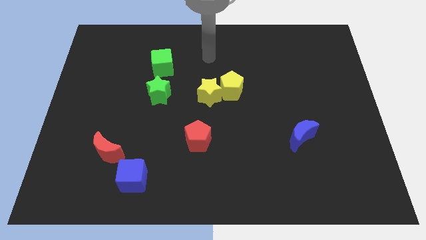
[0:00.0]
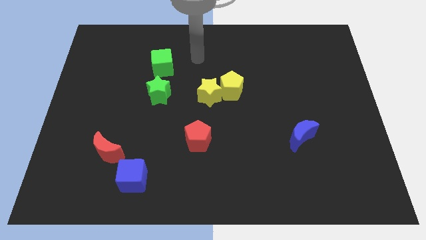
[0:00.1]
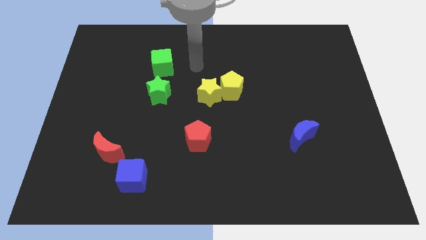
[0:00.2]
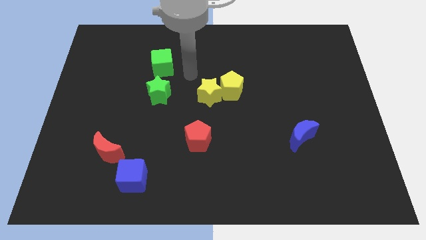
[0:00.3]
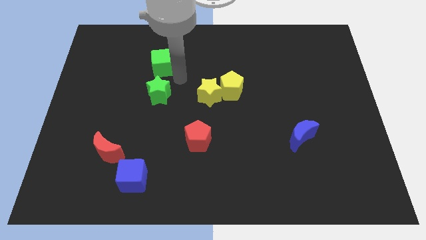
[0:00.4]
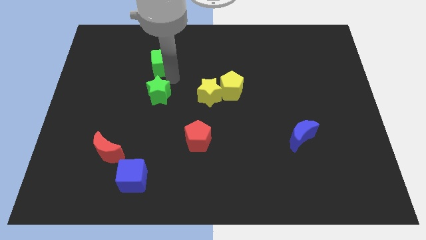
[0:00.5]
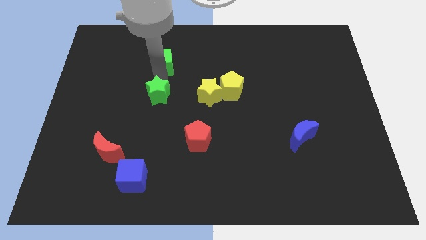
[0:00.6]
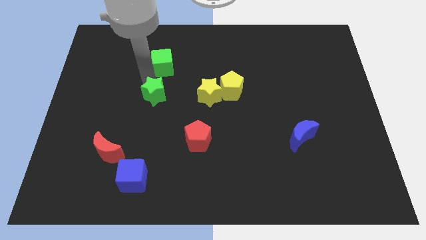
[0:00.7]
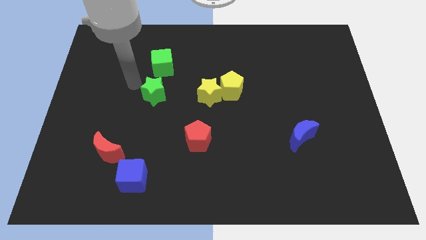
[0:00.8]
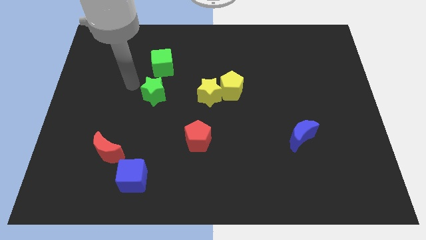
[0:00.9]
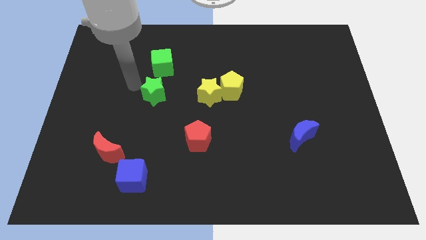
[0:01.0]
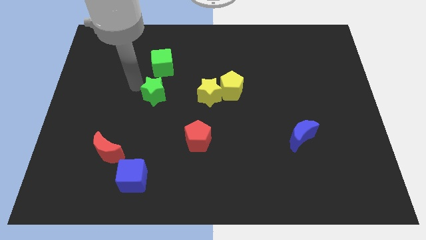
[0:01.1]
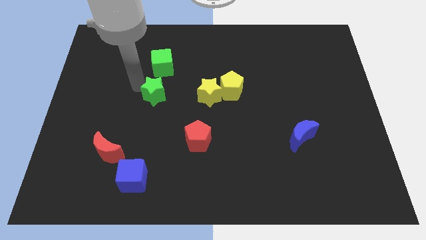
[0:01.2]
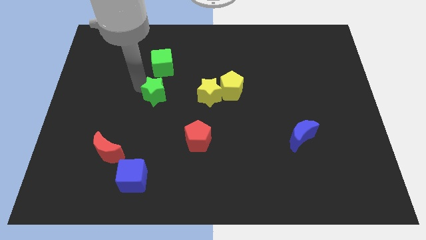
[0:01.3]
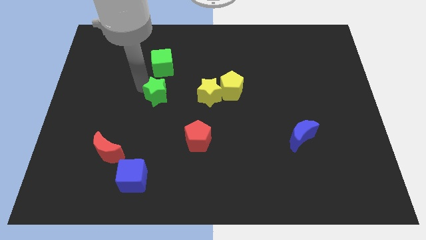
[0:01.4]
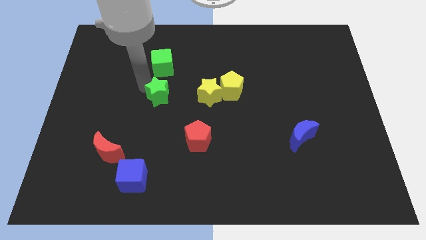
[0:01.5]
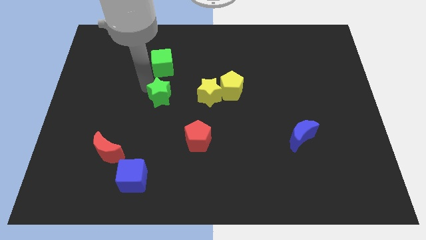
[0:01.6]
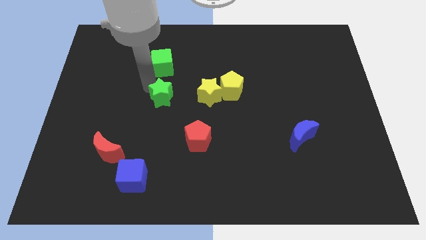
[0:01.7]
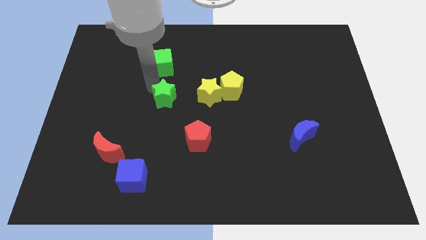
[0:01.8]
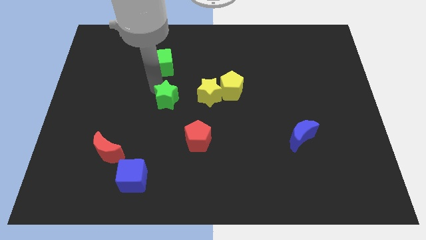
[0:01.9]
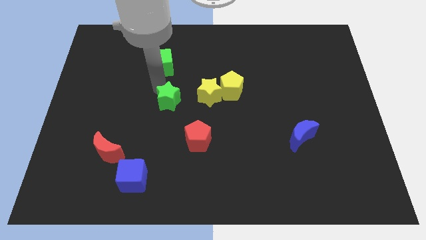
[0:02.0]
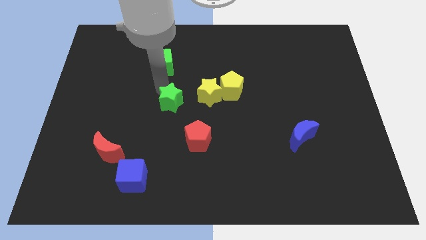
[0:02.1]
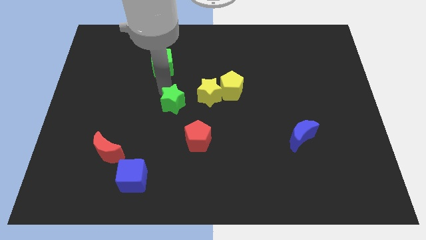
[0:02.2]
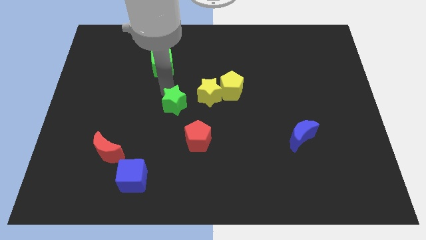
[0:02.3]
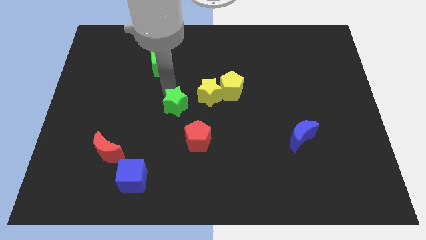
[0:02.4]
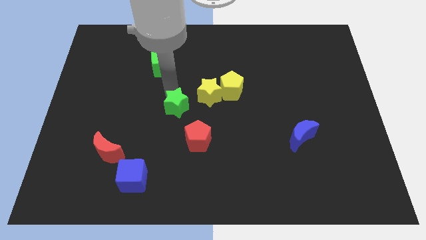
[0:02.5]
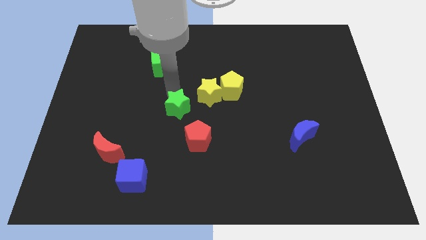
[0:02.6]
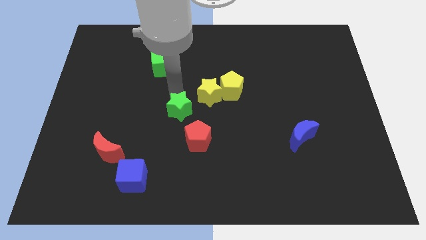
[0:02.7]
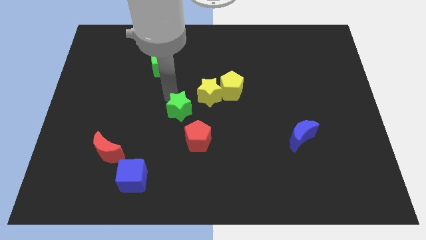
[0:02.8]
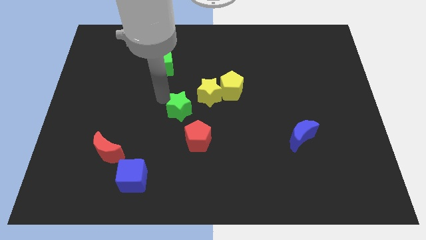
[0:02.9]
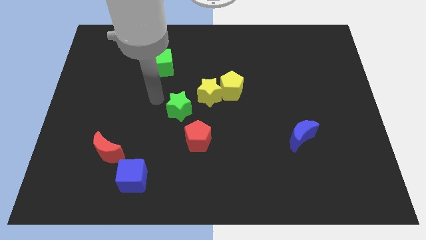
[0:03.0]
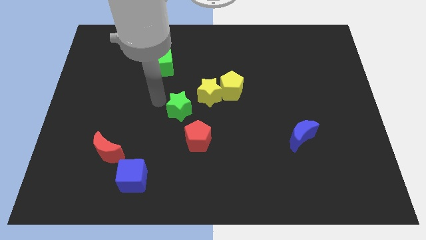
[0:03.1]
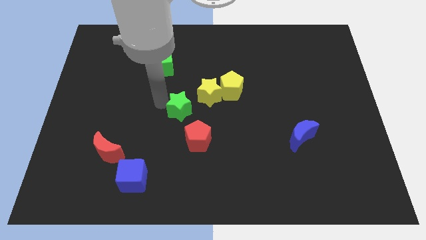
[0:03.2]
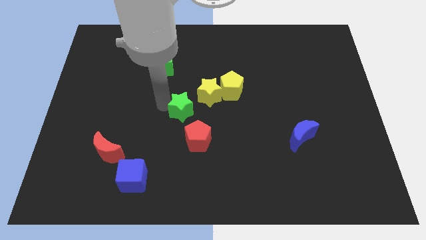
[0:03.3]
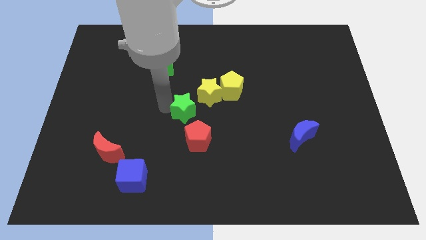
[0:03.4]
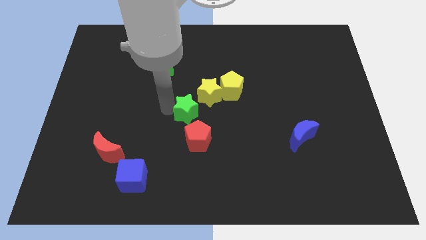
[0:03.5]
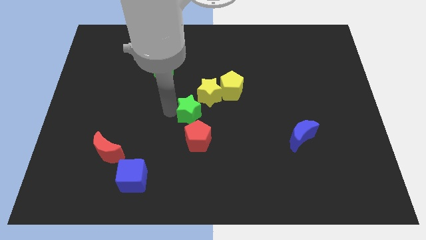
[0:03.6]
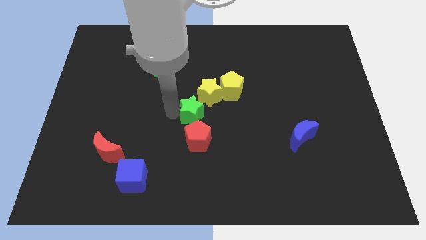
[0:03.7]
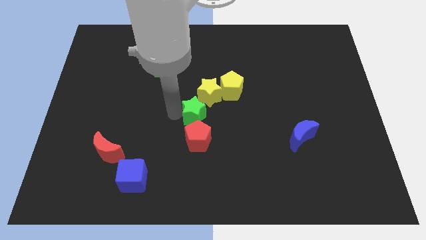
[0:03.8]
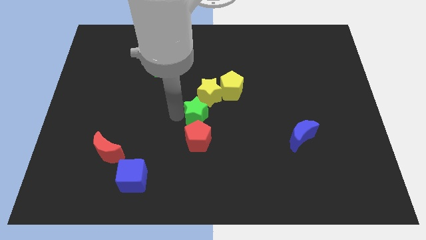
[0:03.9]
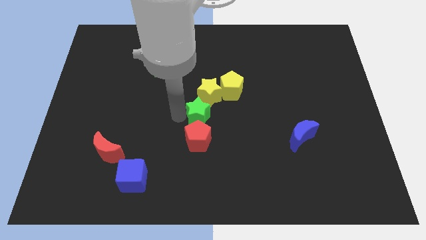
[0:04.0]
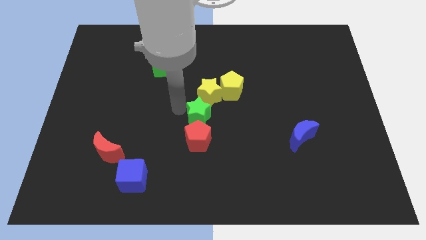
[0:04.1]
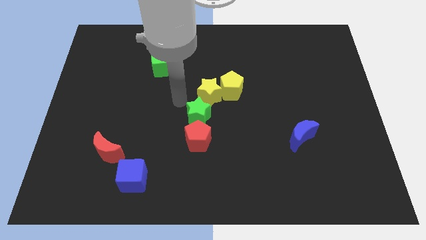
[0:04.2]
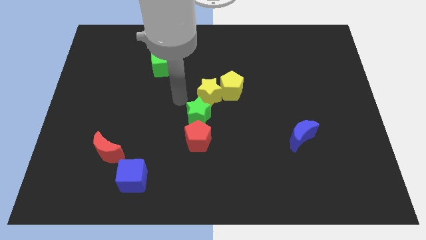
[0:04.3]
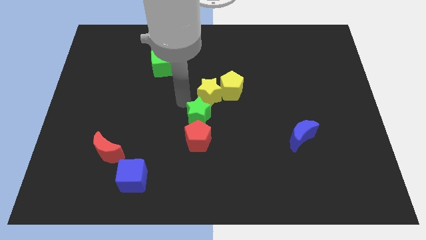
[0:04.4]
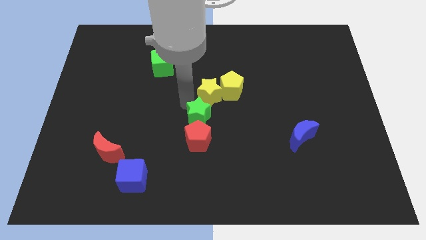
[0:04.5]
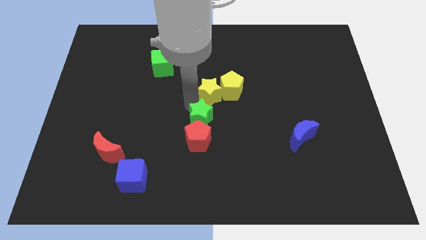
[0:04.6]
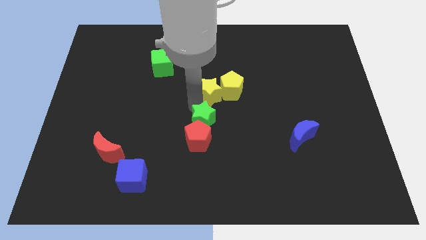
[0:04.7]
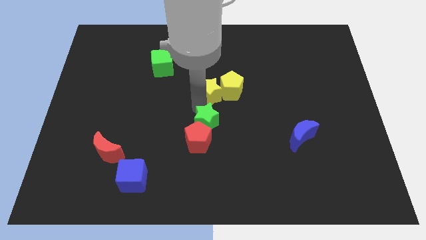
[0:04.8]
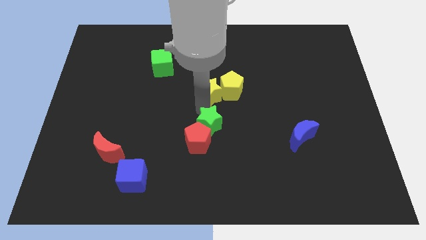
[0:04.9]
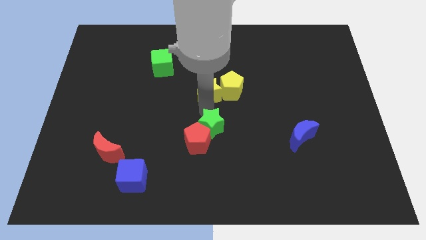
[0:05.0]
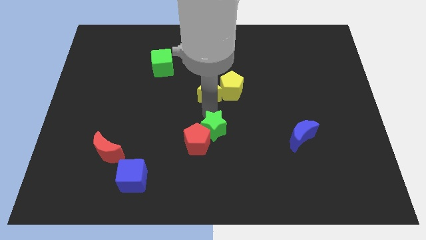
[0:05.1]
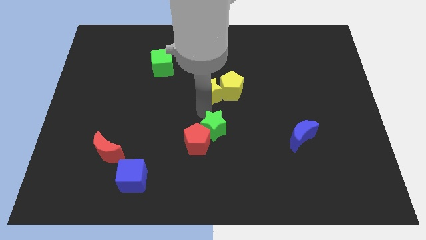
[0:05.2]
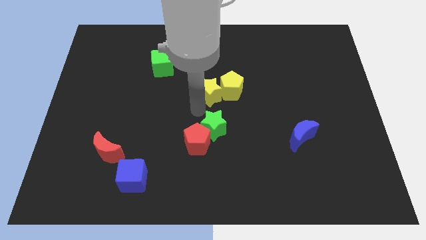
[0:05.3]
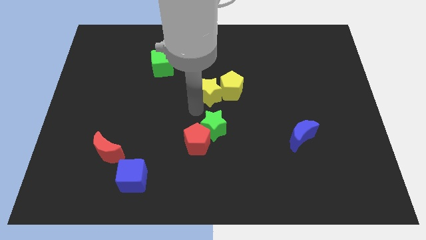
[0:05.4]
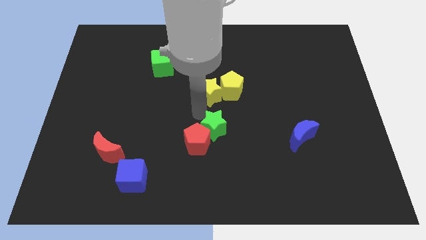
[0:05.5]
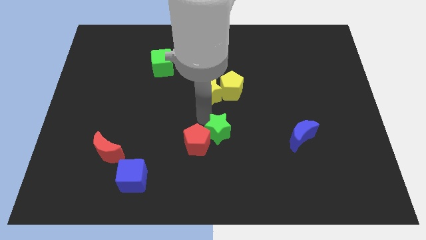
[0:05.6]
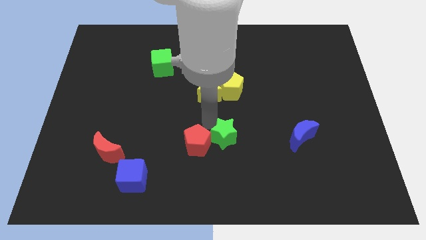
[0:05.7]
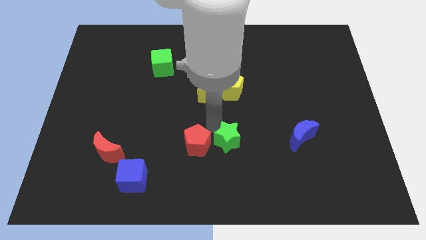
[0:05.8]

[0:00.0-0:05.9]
slide the green star downwards and right diagonally

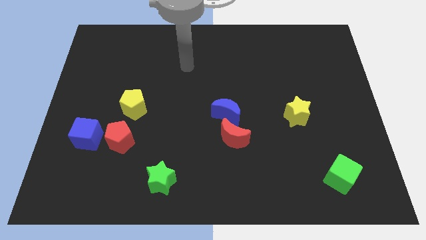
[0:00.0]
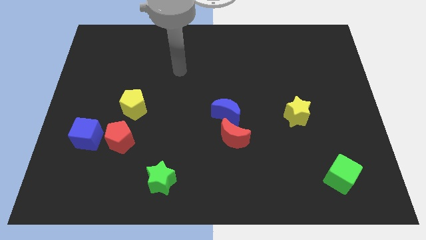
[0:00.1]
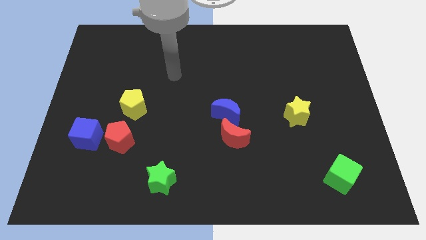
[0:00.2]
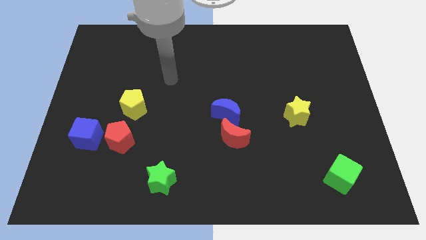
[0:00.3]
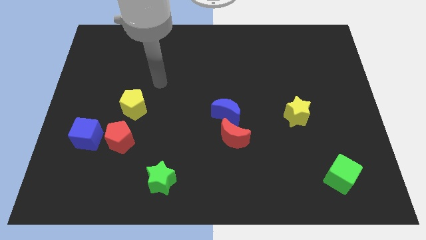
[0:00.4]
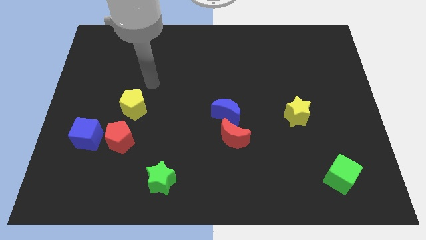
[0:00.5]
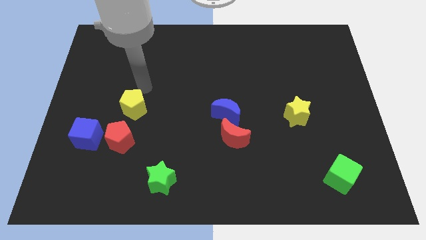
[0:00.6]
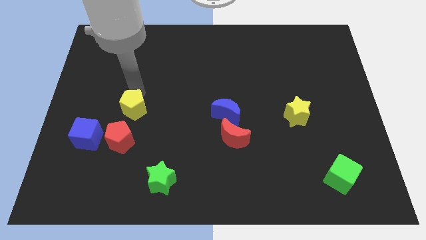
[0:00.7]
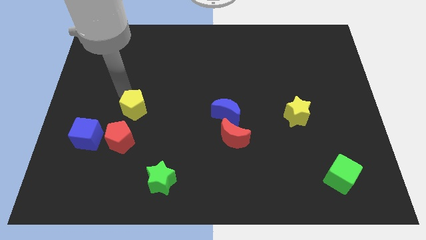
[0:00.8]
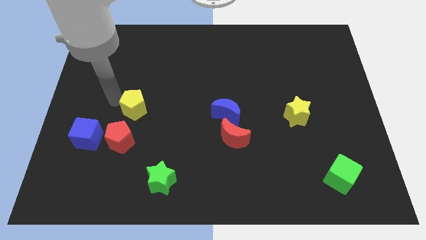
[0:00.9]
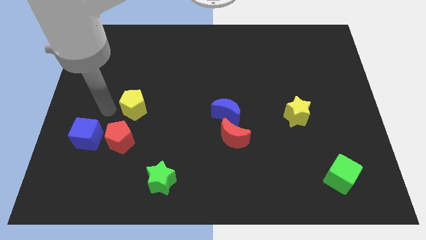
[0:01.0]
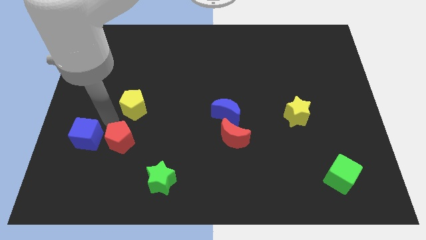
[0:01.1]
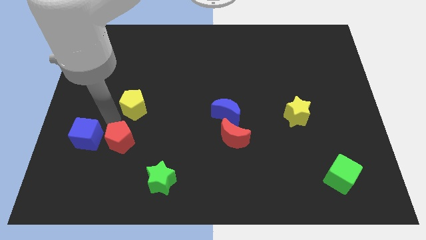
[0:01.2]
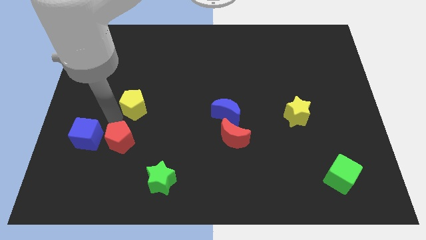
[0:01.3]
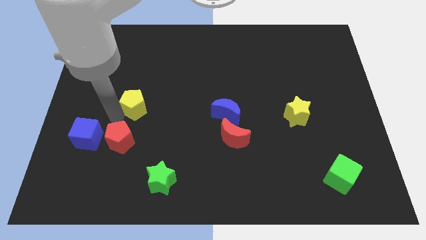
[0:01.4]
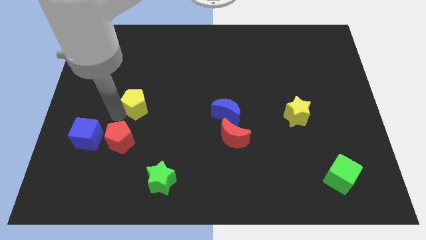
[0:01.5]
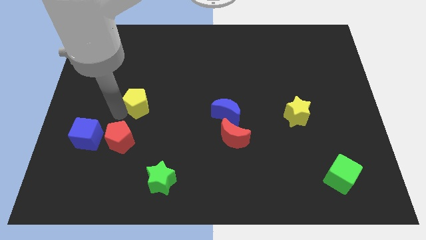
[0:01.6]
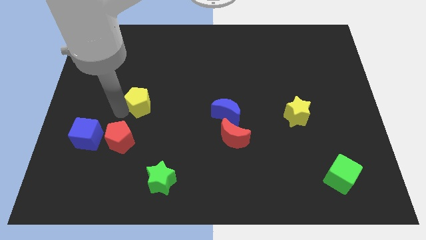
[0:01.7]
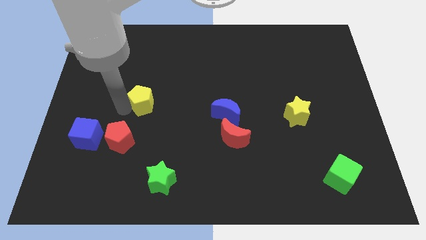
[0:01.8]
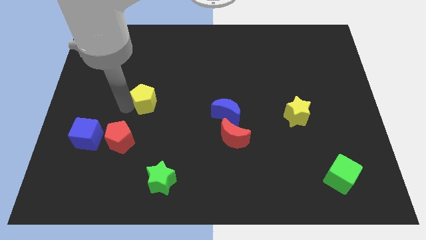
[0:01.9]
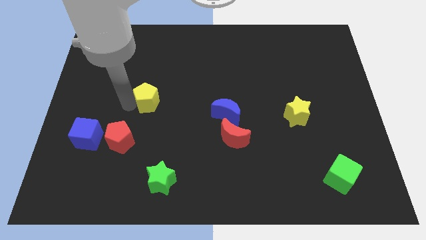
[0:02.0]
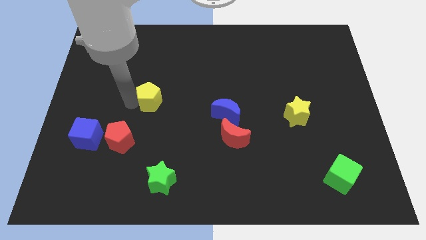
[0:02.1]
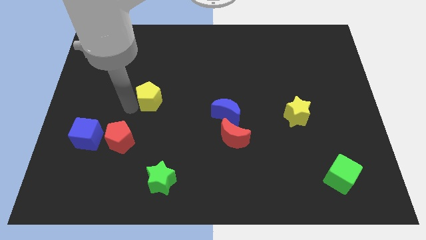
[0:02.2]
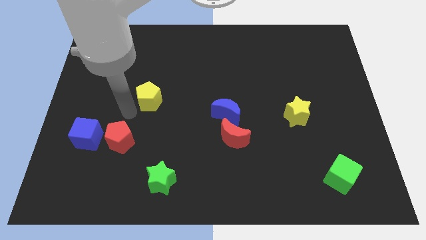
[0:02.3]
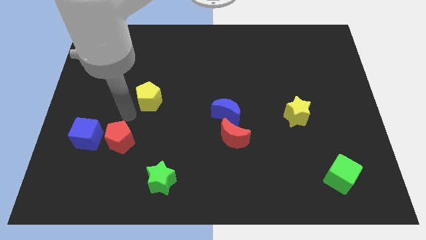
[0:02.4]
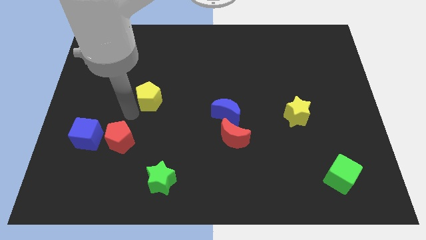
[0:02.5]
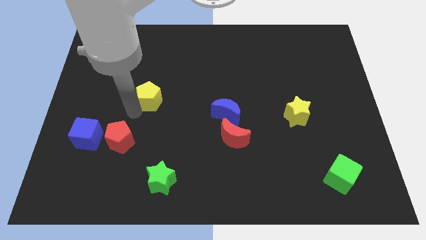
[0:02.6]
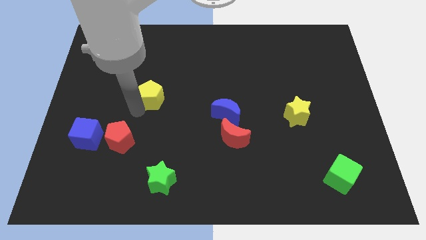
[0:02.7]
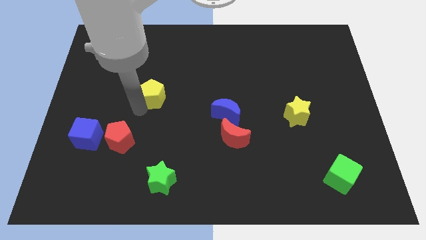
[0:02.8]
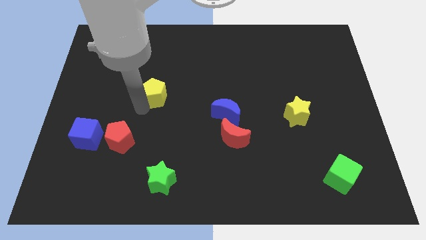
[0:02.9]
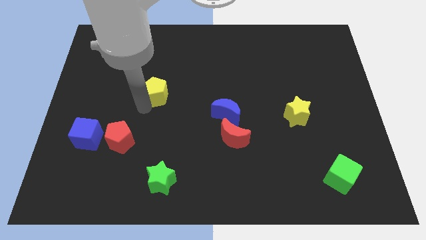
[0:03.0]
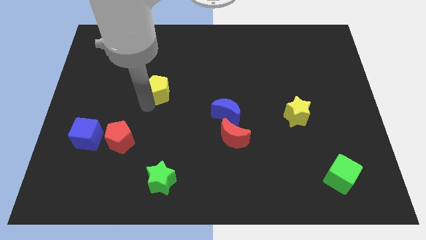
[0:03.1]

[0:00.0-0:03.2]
push the yellow pentagon slightly upwards and right diagonally
